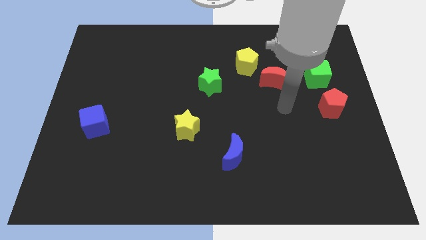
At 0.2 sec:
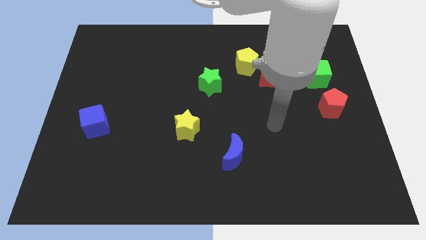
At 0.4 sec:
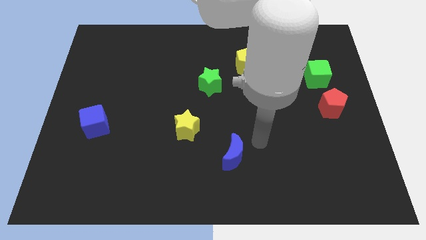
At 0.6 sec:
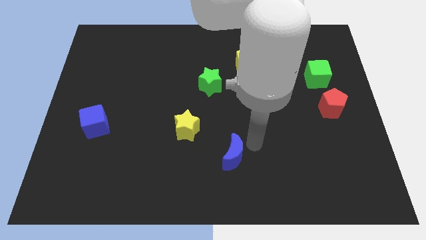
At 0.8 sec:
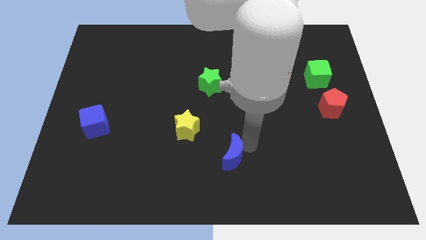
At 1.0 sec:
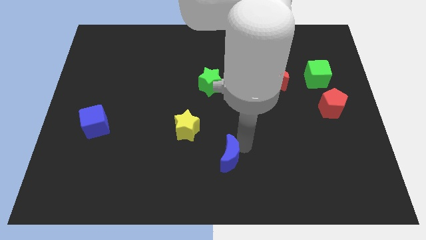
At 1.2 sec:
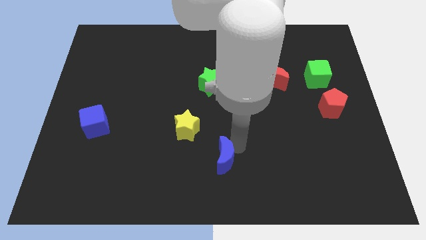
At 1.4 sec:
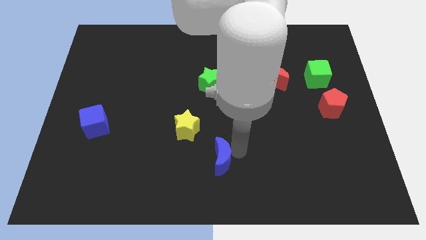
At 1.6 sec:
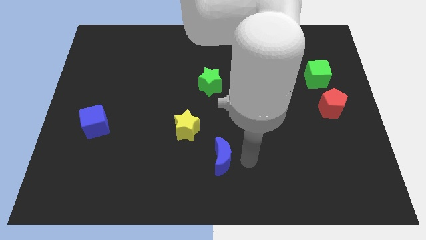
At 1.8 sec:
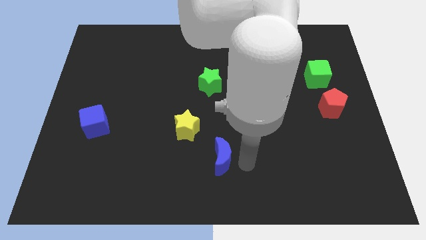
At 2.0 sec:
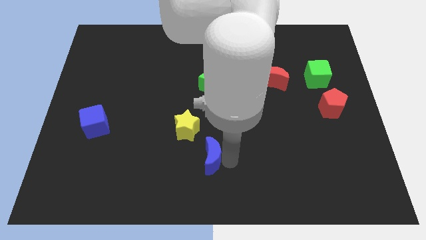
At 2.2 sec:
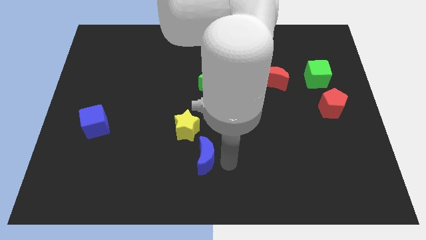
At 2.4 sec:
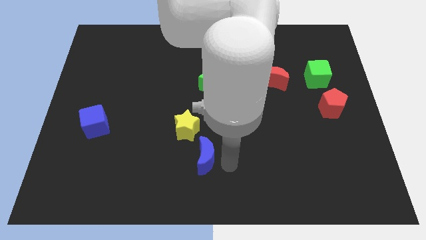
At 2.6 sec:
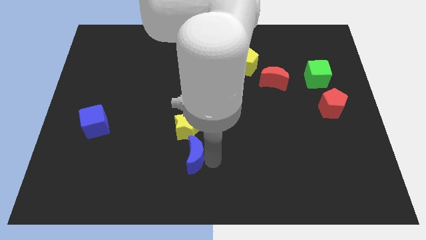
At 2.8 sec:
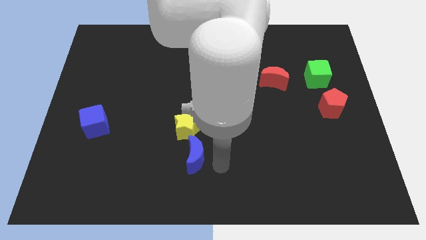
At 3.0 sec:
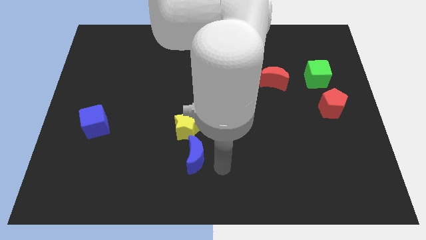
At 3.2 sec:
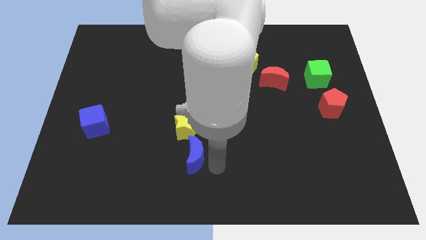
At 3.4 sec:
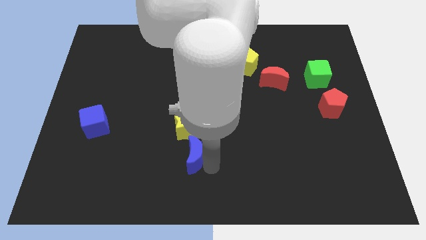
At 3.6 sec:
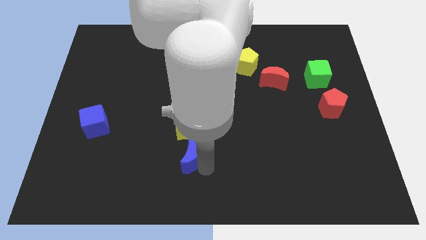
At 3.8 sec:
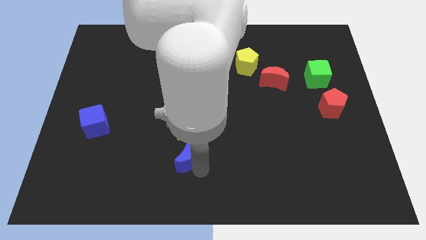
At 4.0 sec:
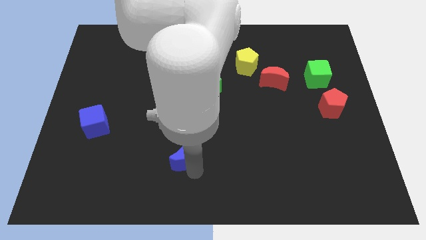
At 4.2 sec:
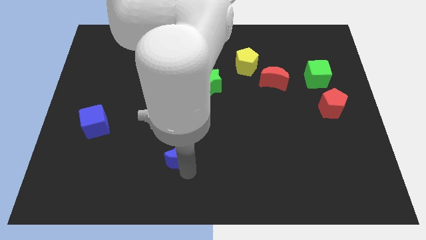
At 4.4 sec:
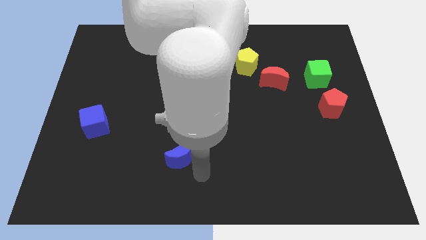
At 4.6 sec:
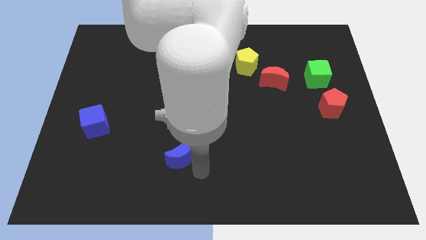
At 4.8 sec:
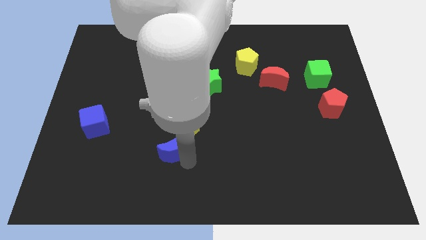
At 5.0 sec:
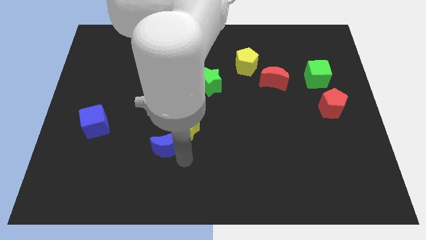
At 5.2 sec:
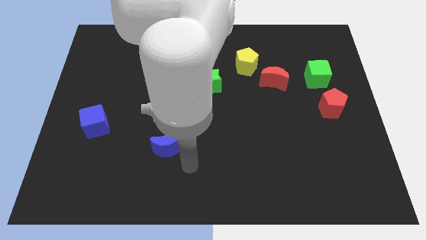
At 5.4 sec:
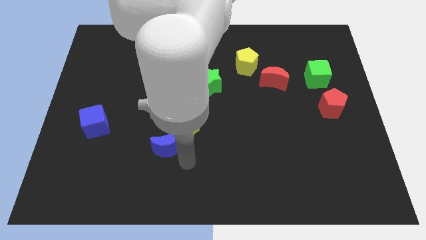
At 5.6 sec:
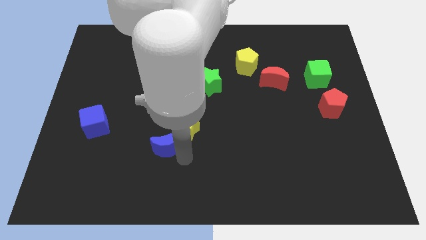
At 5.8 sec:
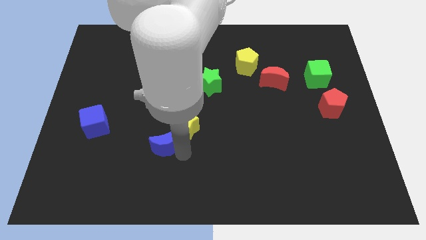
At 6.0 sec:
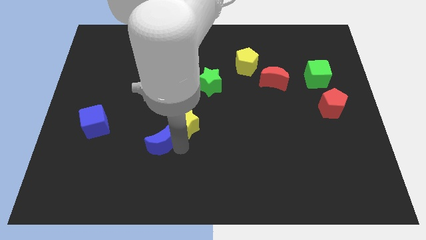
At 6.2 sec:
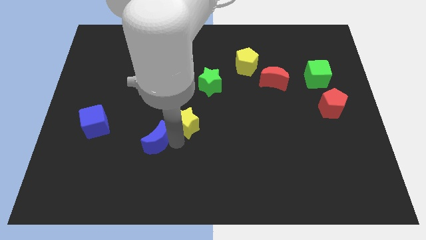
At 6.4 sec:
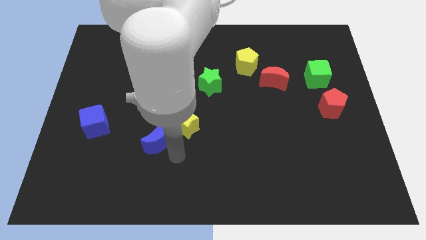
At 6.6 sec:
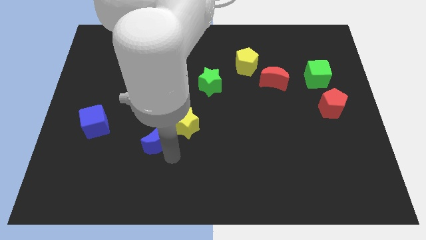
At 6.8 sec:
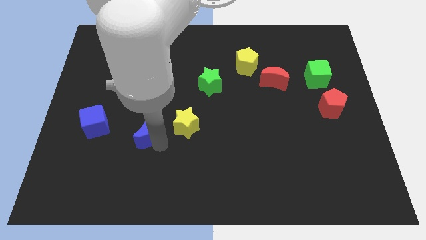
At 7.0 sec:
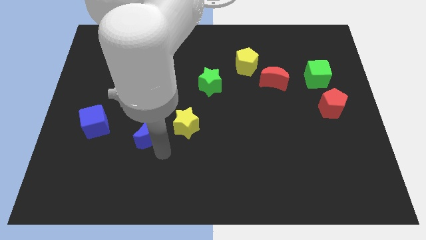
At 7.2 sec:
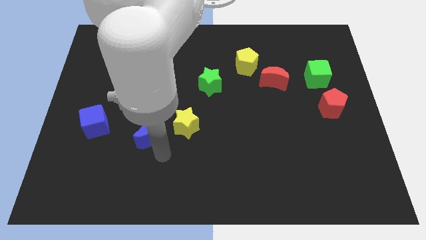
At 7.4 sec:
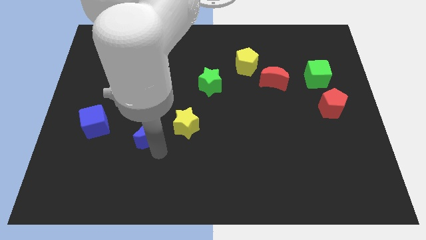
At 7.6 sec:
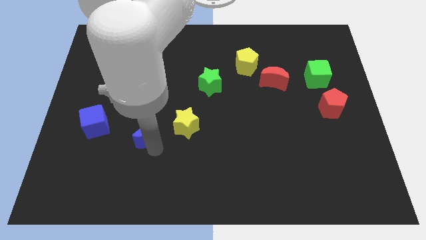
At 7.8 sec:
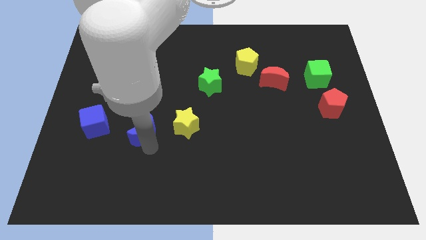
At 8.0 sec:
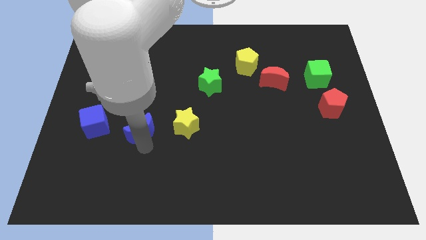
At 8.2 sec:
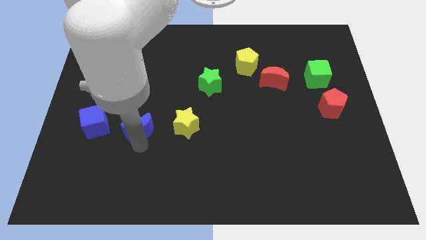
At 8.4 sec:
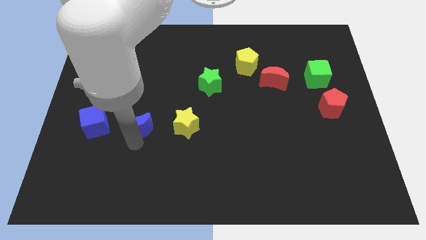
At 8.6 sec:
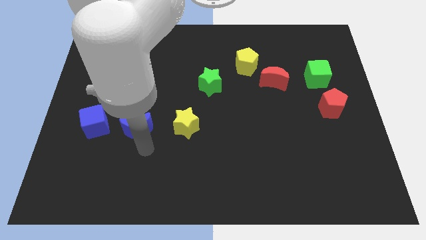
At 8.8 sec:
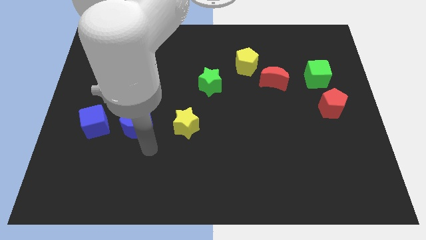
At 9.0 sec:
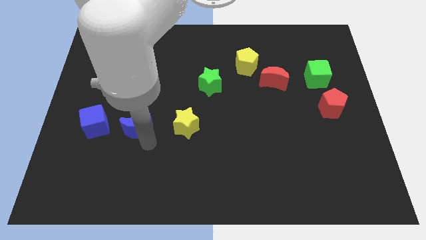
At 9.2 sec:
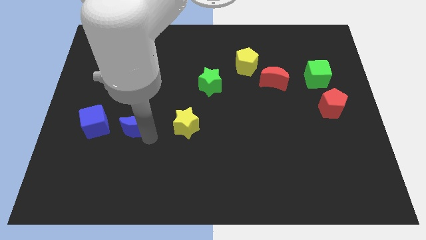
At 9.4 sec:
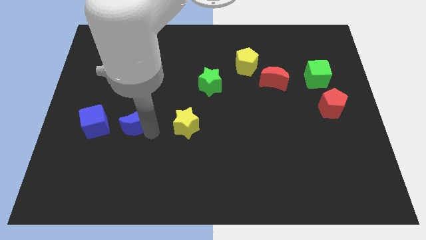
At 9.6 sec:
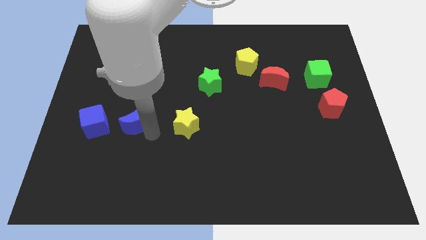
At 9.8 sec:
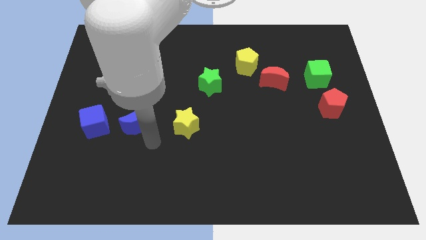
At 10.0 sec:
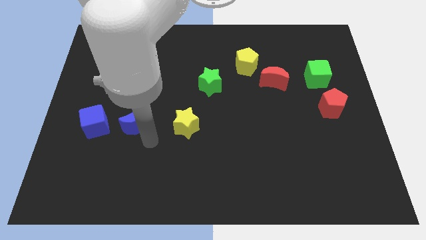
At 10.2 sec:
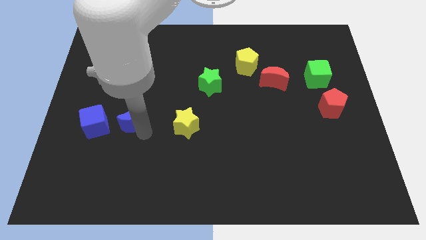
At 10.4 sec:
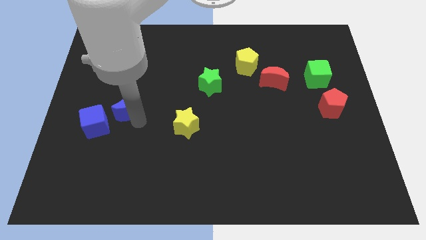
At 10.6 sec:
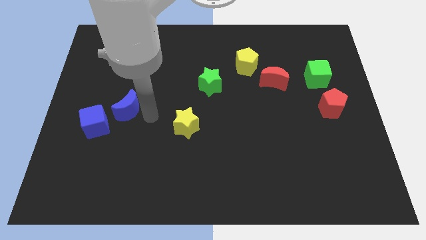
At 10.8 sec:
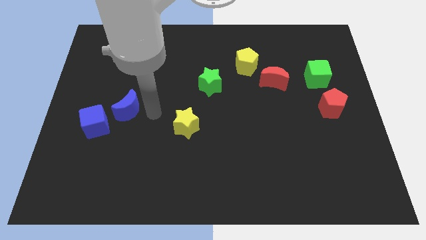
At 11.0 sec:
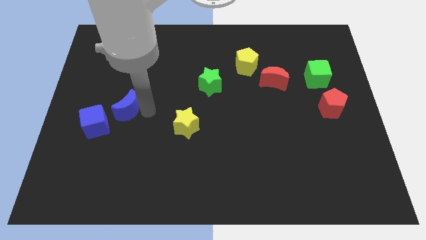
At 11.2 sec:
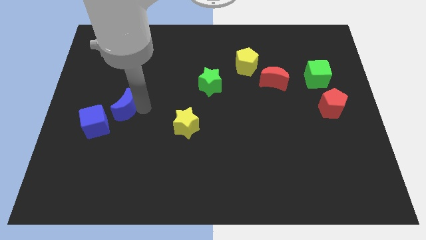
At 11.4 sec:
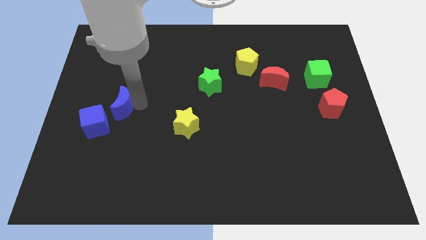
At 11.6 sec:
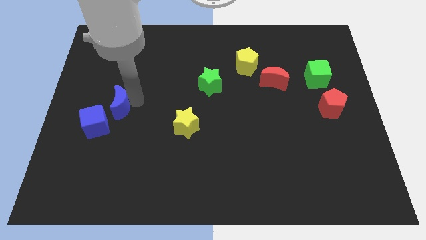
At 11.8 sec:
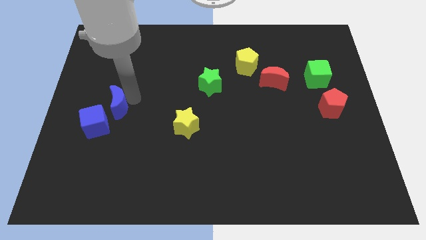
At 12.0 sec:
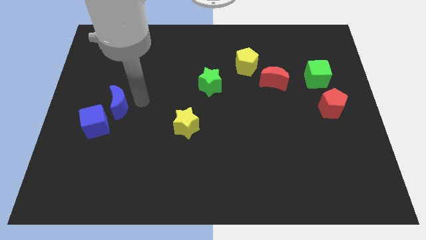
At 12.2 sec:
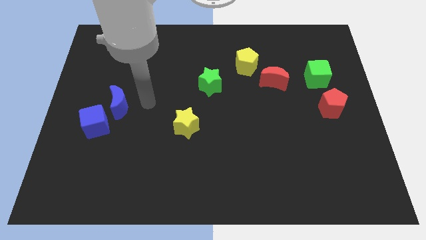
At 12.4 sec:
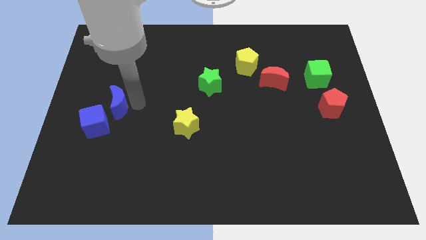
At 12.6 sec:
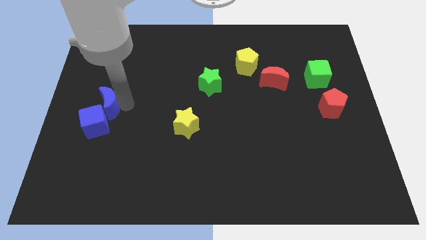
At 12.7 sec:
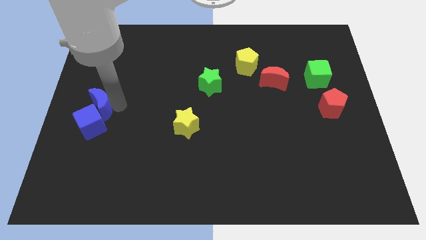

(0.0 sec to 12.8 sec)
move the blue moon to the left side of the board

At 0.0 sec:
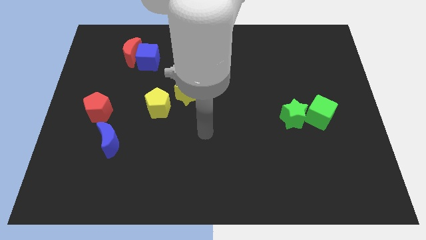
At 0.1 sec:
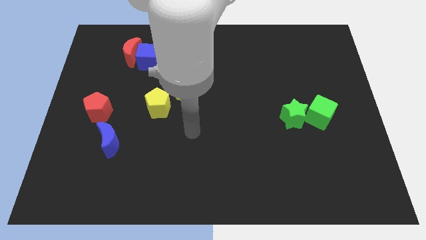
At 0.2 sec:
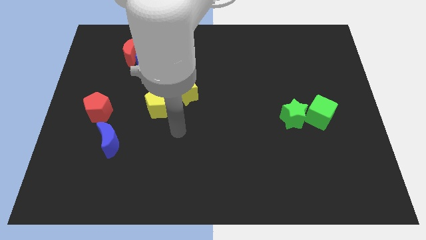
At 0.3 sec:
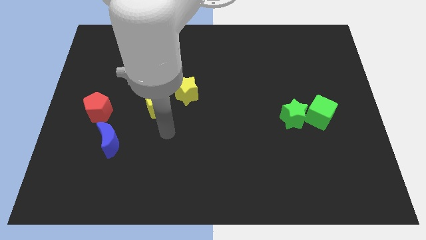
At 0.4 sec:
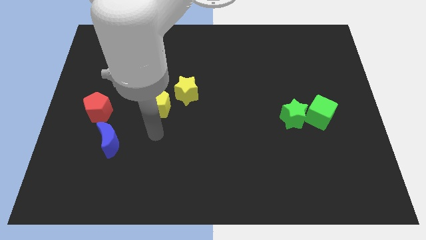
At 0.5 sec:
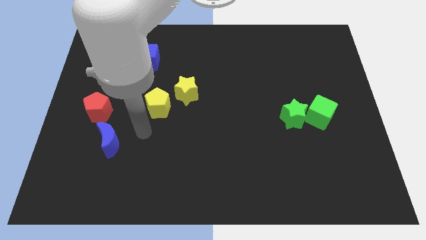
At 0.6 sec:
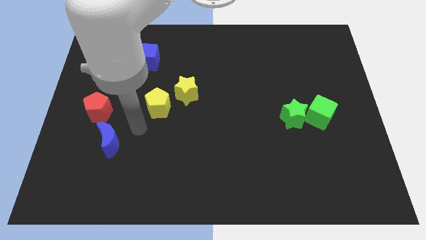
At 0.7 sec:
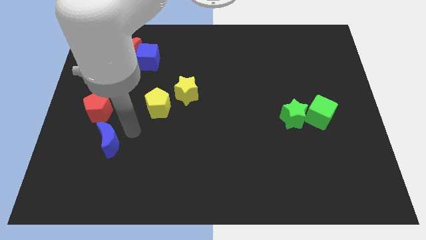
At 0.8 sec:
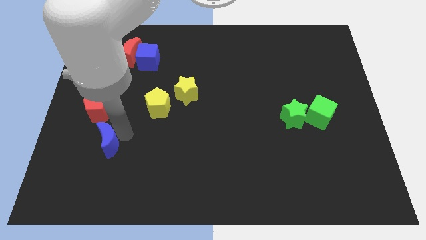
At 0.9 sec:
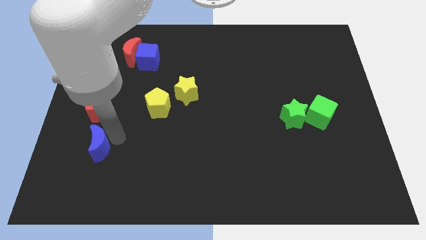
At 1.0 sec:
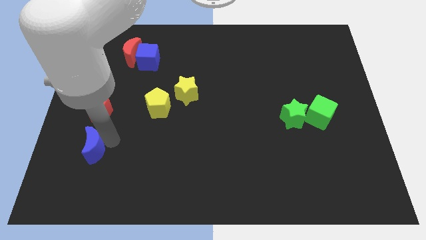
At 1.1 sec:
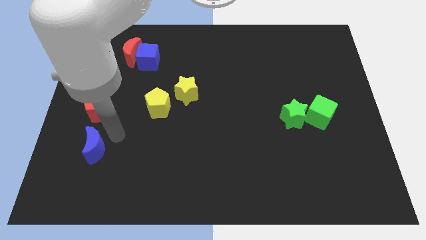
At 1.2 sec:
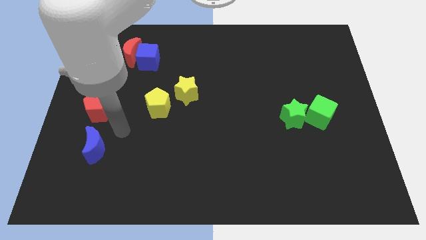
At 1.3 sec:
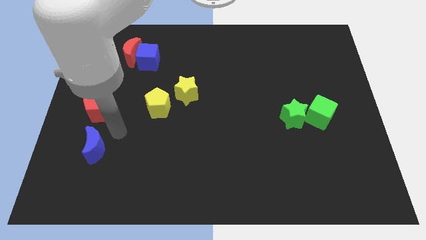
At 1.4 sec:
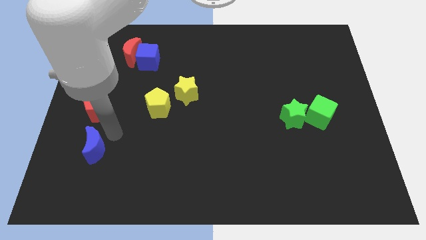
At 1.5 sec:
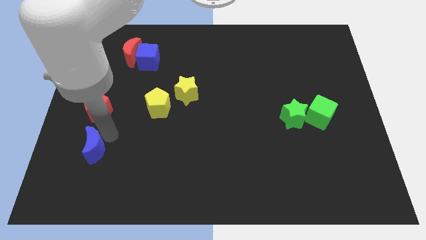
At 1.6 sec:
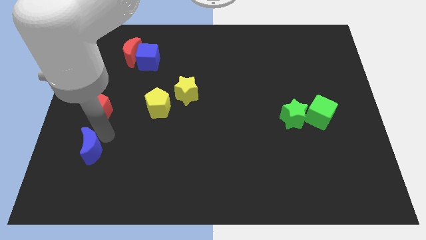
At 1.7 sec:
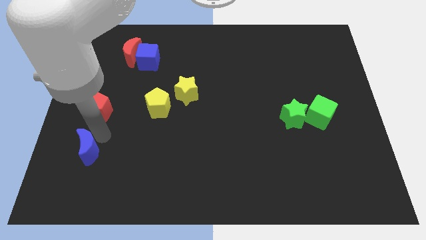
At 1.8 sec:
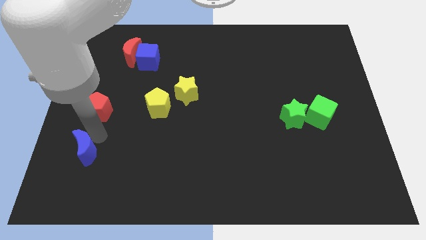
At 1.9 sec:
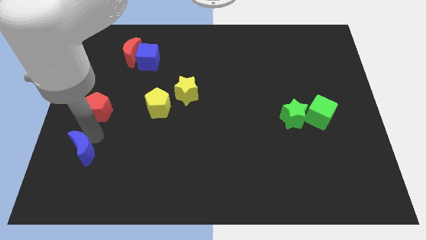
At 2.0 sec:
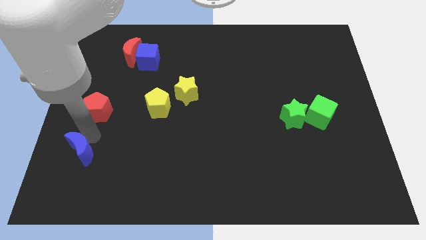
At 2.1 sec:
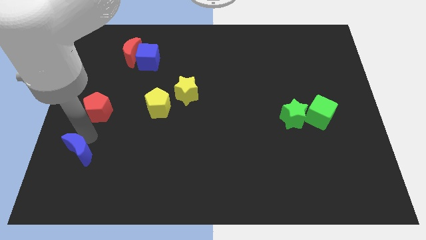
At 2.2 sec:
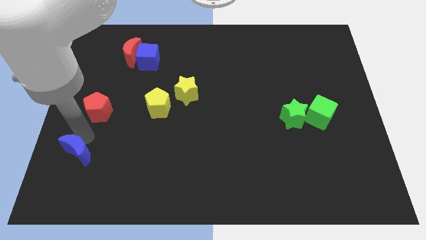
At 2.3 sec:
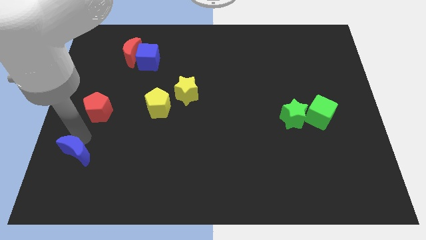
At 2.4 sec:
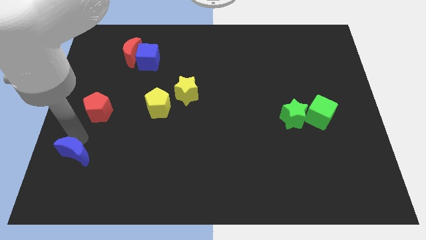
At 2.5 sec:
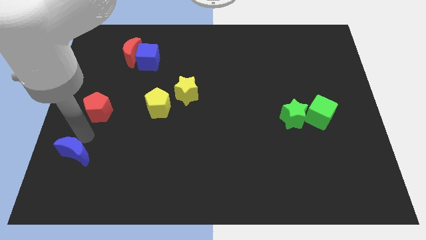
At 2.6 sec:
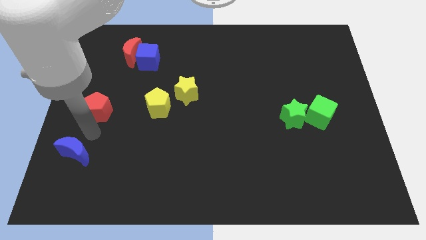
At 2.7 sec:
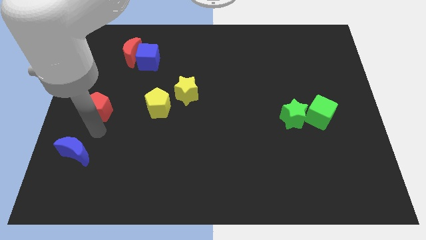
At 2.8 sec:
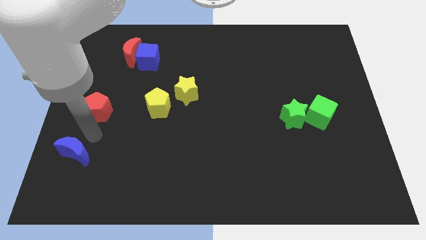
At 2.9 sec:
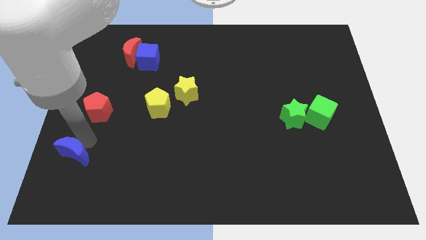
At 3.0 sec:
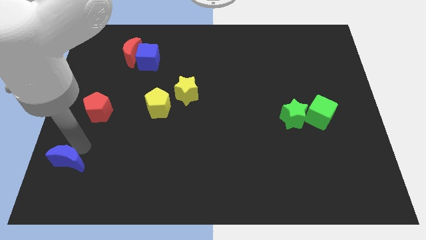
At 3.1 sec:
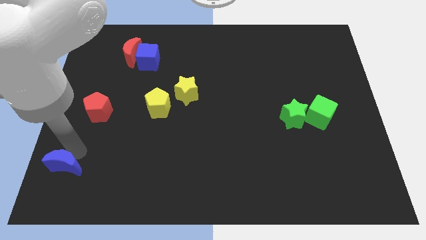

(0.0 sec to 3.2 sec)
push the blue moon to the bottom left
